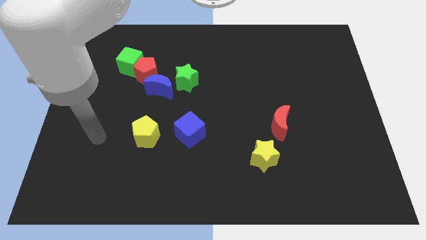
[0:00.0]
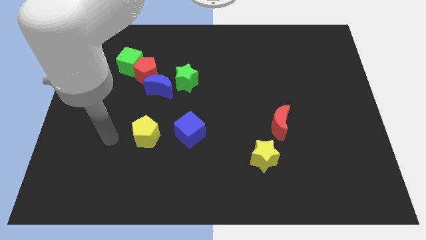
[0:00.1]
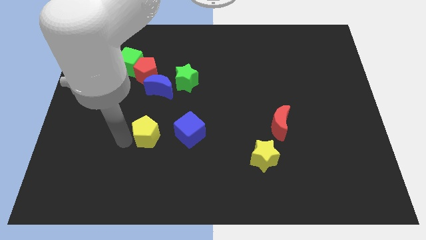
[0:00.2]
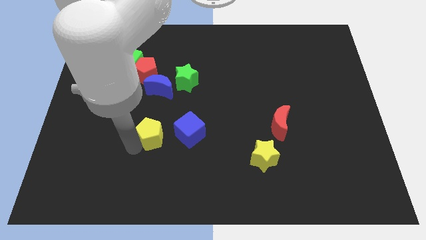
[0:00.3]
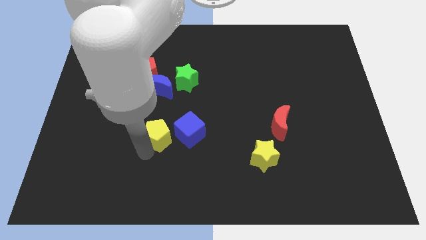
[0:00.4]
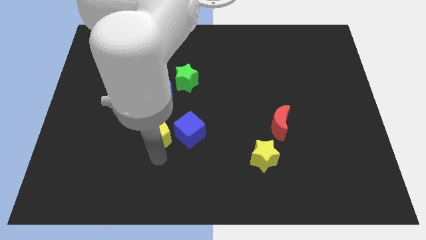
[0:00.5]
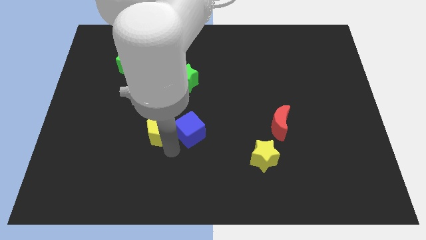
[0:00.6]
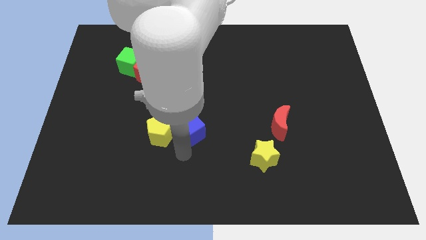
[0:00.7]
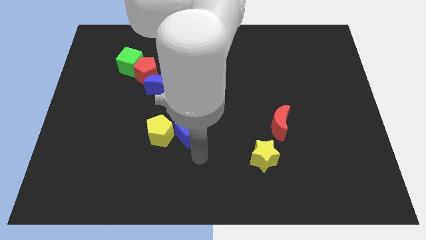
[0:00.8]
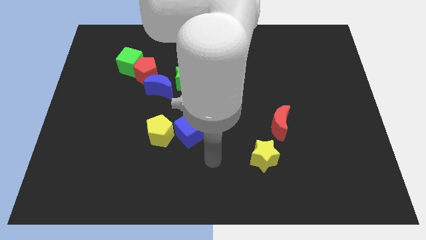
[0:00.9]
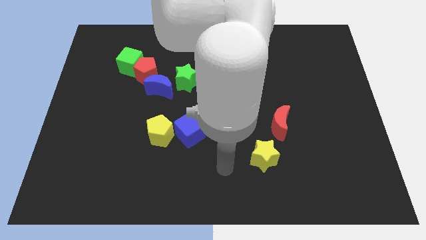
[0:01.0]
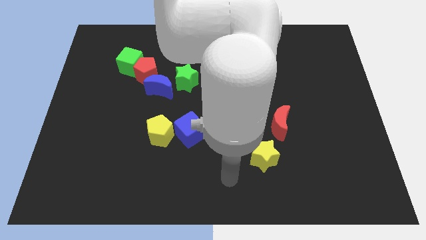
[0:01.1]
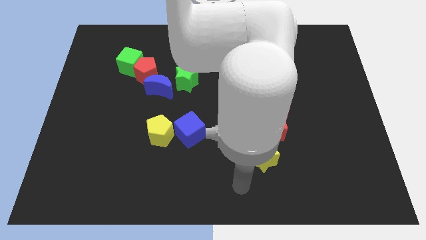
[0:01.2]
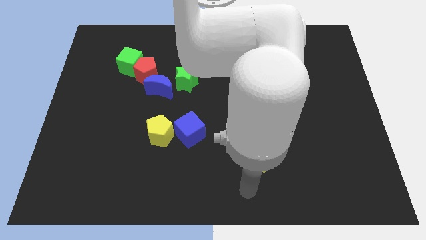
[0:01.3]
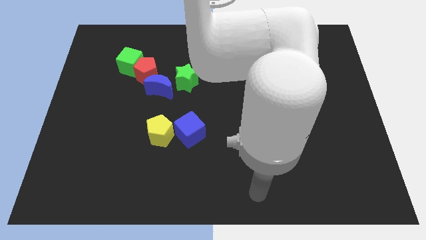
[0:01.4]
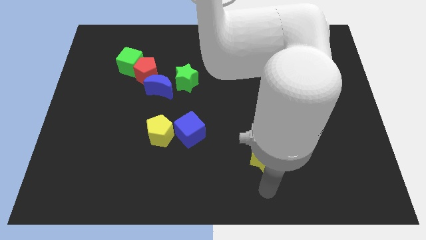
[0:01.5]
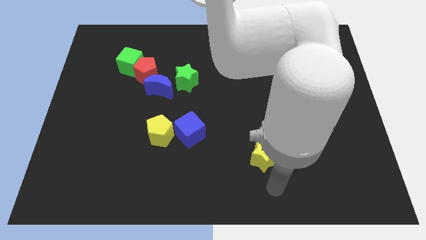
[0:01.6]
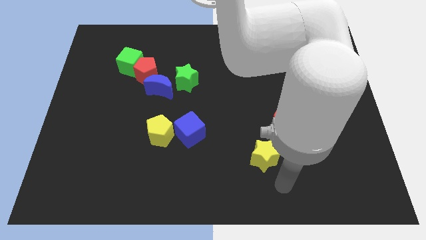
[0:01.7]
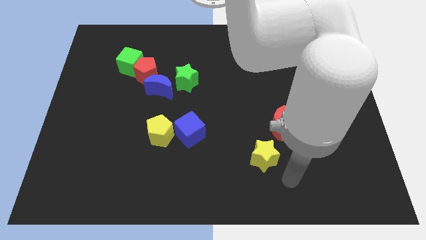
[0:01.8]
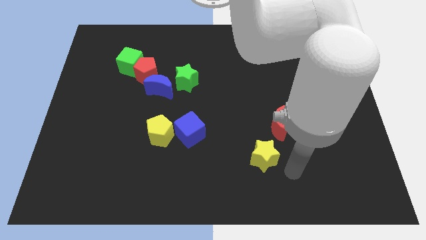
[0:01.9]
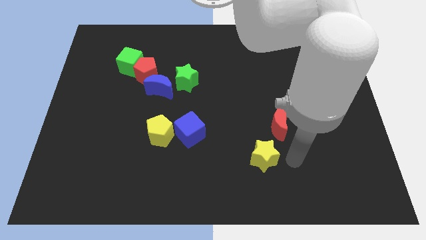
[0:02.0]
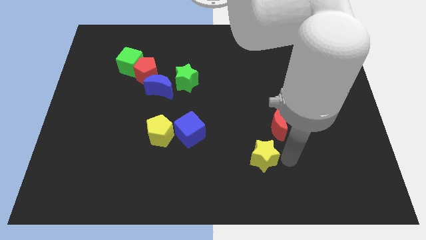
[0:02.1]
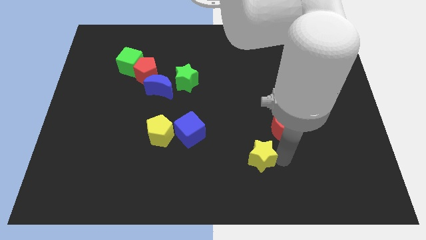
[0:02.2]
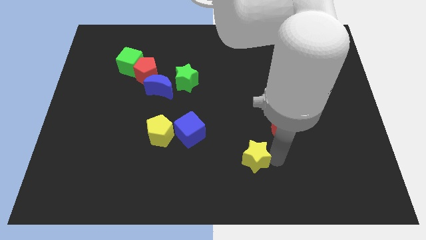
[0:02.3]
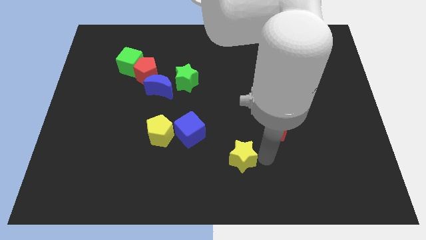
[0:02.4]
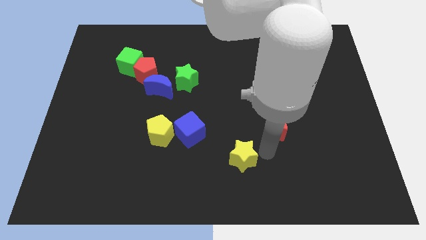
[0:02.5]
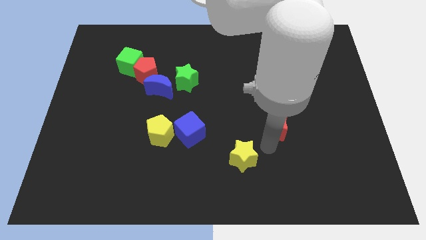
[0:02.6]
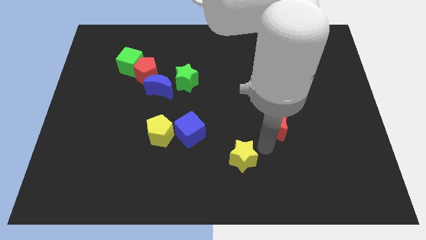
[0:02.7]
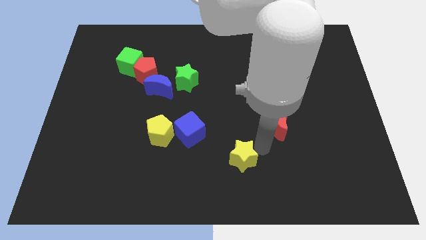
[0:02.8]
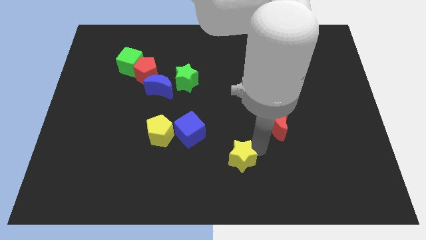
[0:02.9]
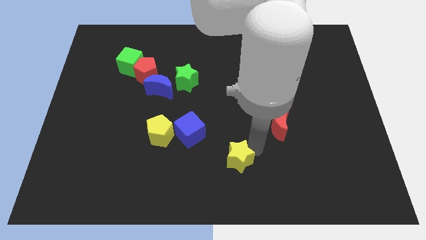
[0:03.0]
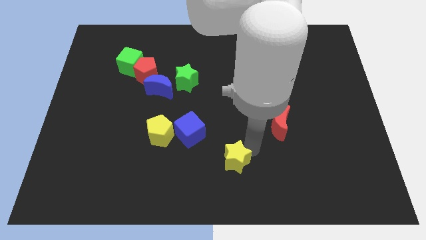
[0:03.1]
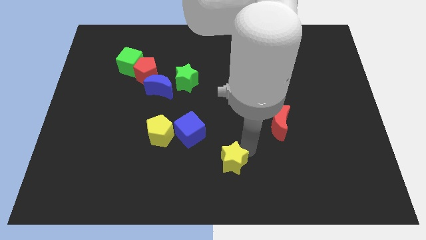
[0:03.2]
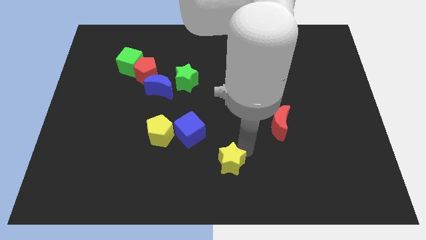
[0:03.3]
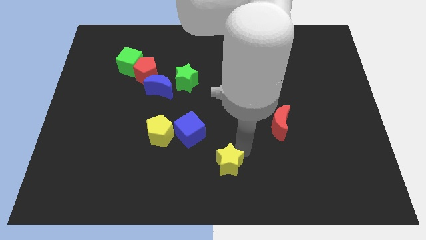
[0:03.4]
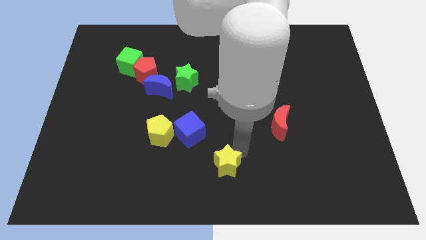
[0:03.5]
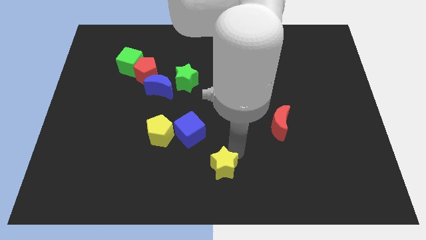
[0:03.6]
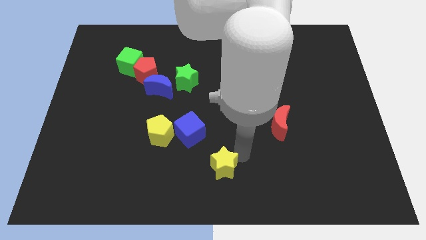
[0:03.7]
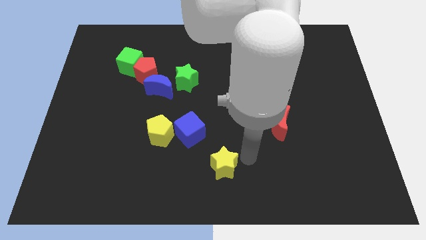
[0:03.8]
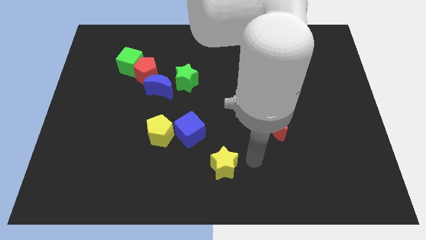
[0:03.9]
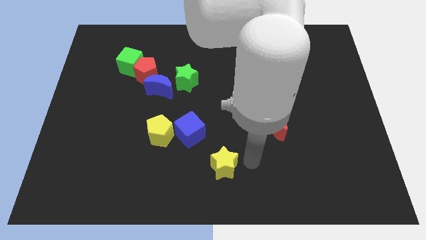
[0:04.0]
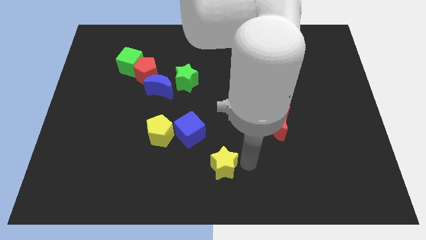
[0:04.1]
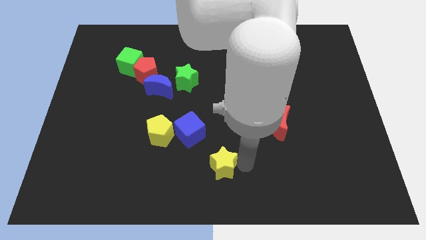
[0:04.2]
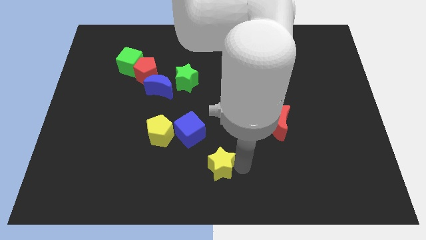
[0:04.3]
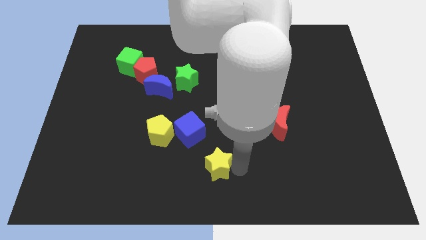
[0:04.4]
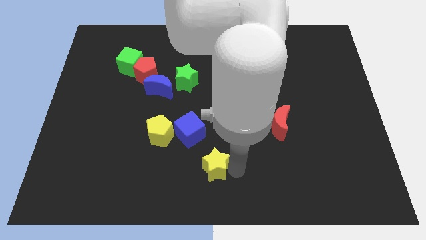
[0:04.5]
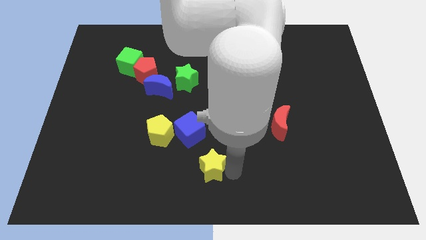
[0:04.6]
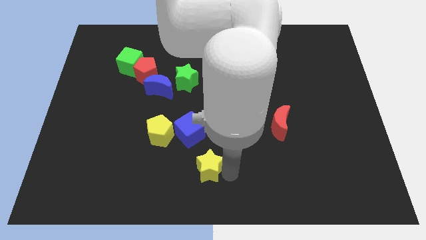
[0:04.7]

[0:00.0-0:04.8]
move the yellow star below the blue cube

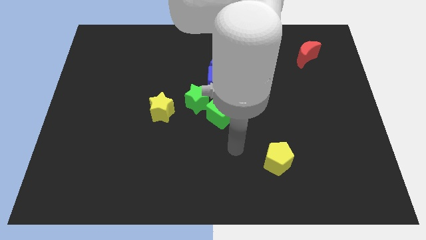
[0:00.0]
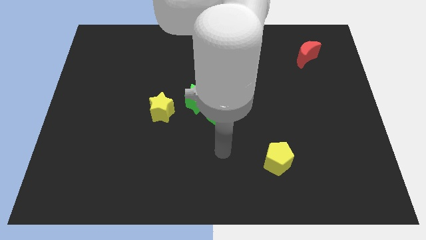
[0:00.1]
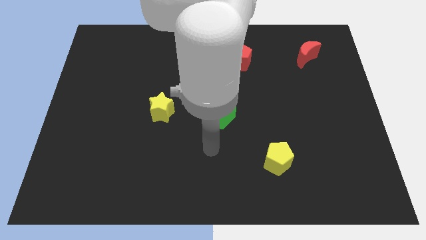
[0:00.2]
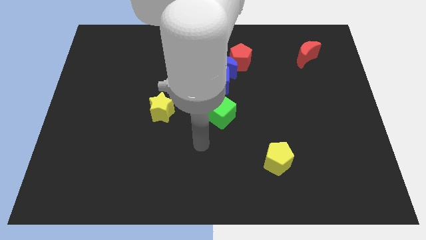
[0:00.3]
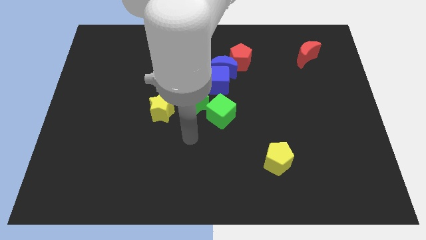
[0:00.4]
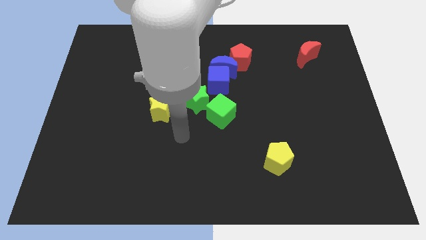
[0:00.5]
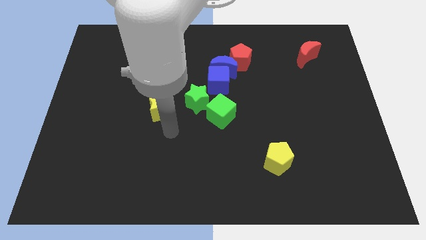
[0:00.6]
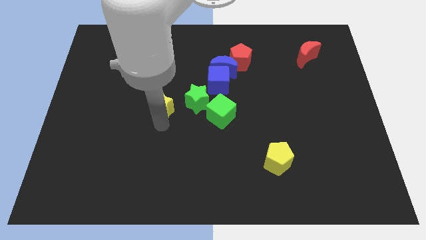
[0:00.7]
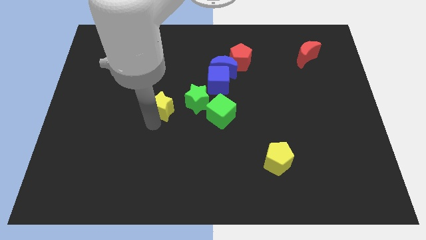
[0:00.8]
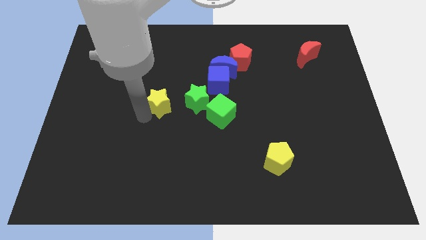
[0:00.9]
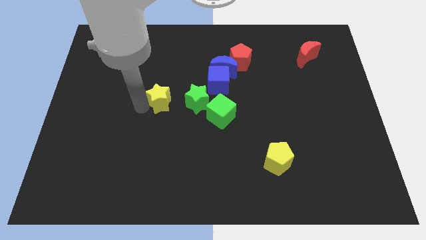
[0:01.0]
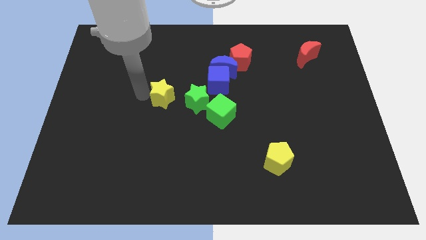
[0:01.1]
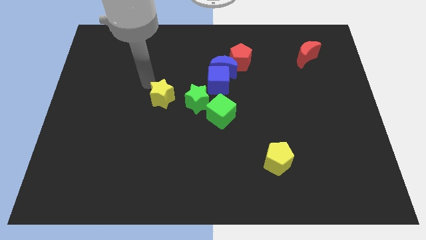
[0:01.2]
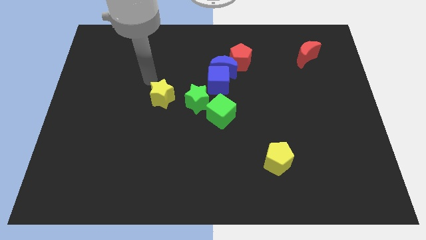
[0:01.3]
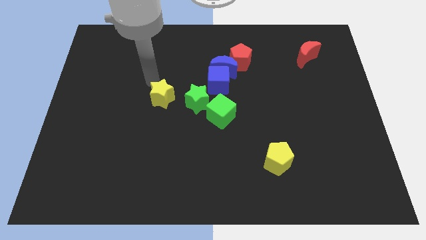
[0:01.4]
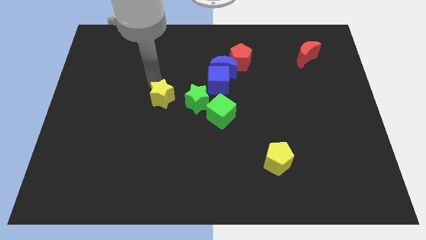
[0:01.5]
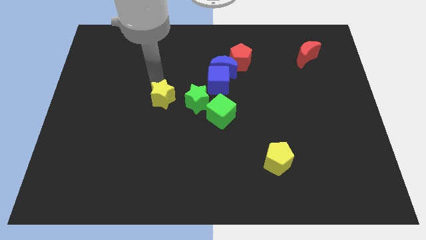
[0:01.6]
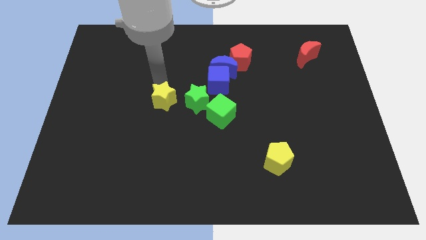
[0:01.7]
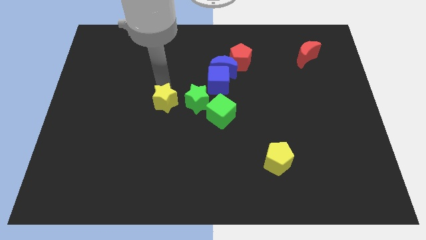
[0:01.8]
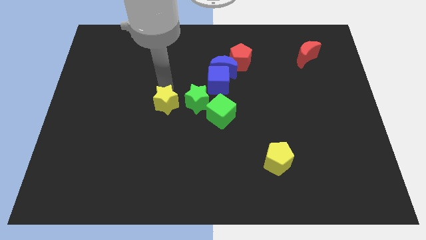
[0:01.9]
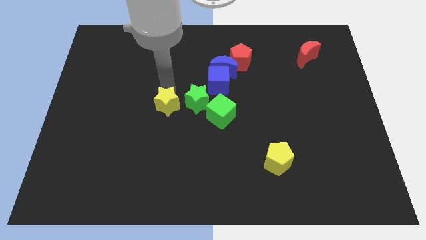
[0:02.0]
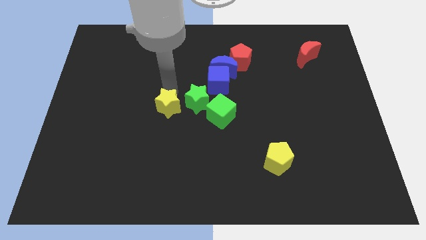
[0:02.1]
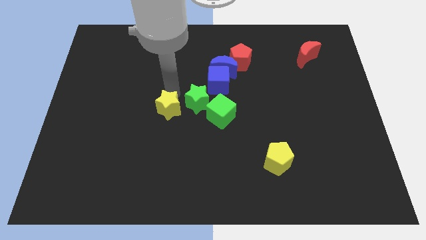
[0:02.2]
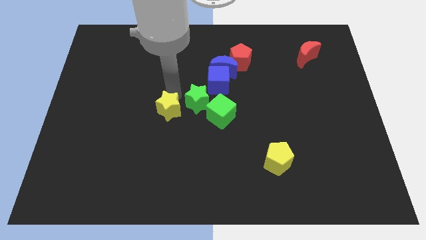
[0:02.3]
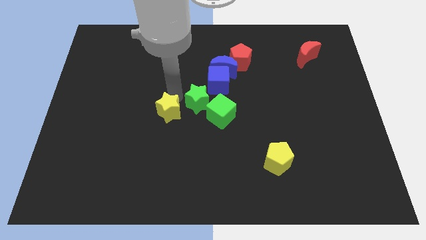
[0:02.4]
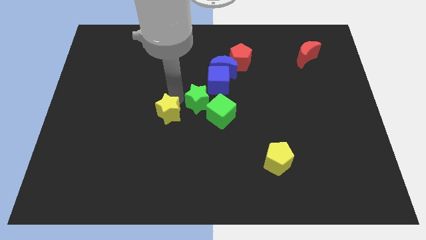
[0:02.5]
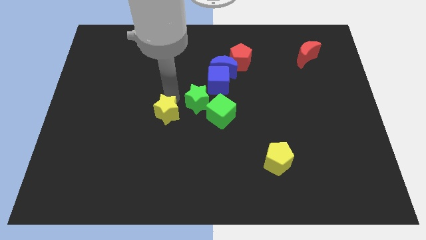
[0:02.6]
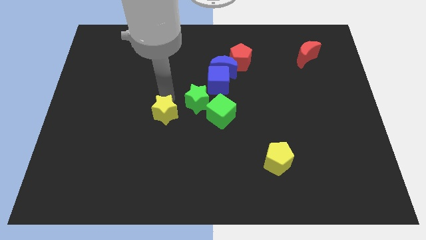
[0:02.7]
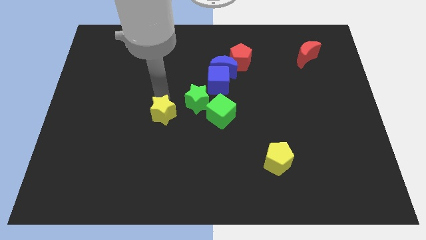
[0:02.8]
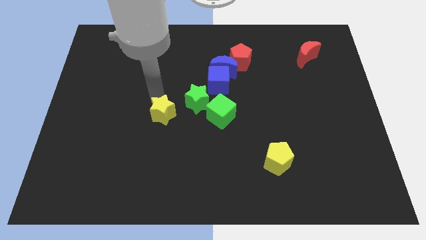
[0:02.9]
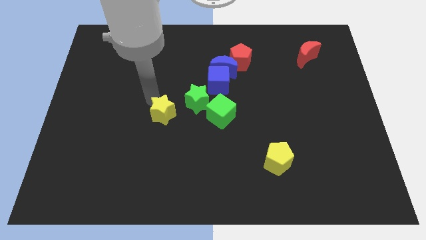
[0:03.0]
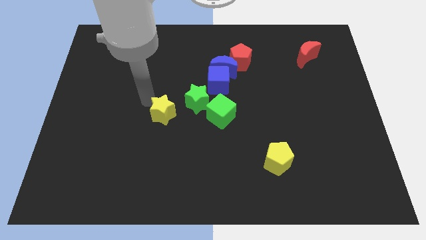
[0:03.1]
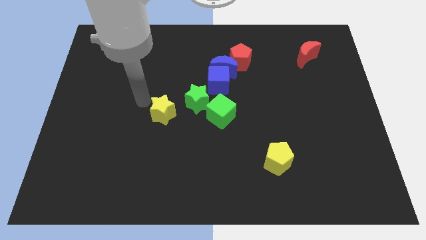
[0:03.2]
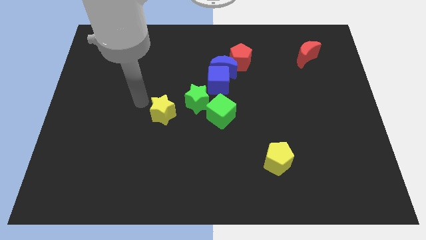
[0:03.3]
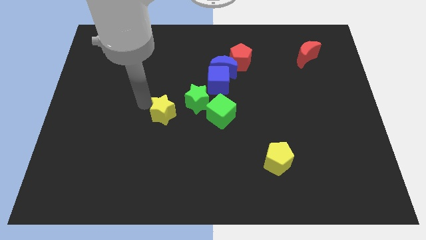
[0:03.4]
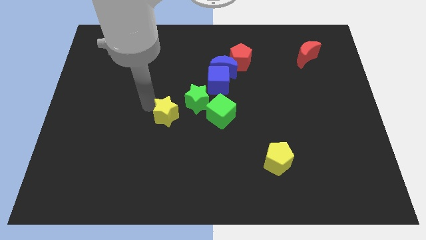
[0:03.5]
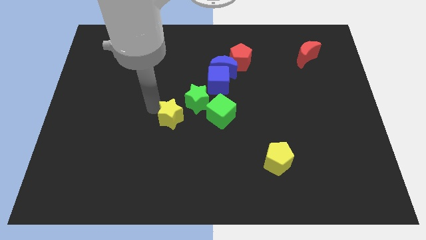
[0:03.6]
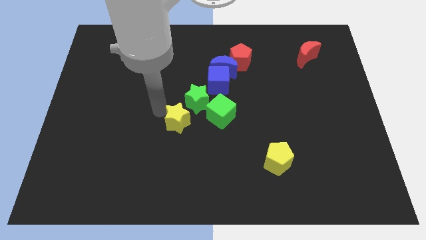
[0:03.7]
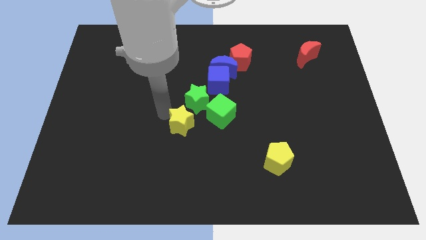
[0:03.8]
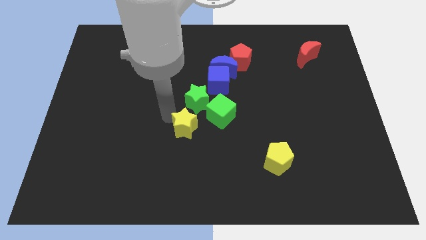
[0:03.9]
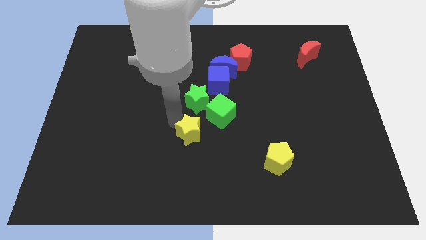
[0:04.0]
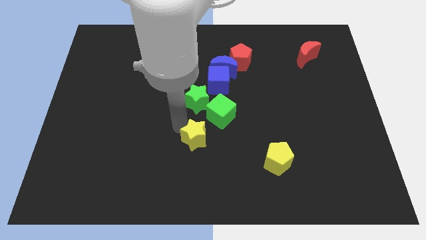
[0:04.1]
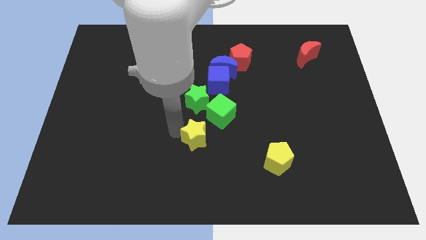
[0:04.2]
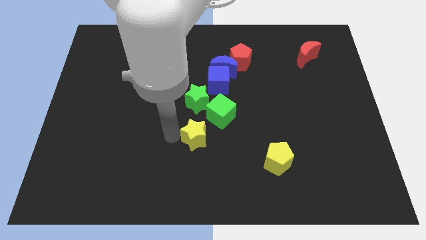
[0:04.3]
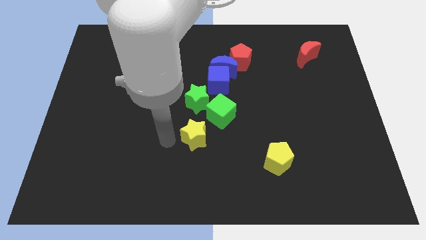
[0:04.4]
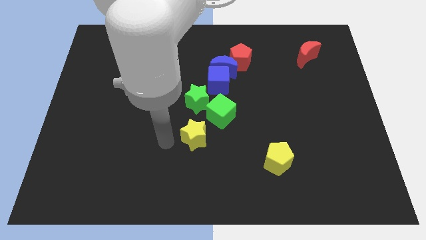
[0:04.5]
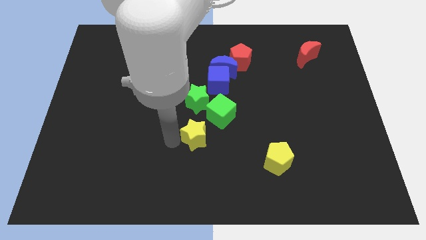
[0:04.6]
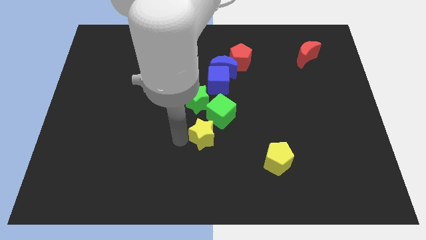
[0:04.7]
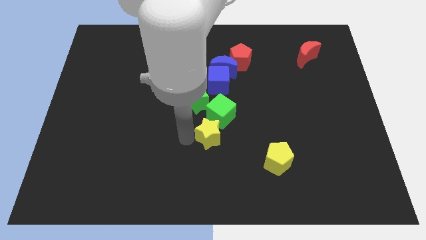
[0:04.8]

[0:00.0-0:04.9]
push the yellow star to the bottom of the blue cube
